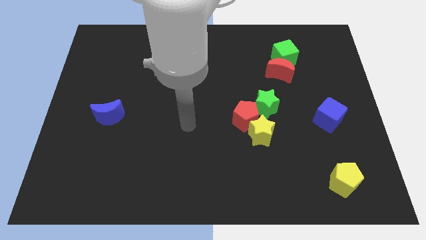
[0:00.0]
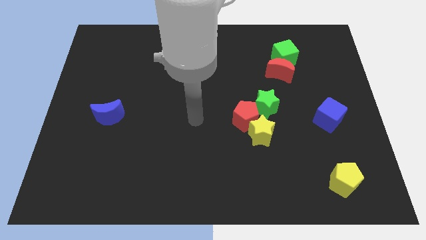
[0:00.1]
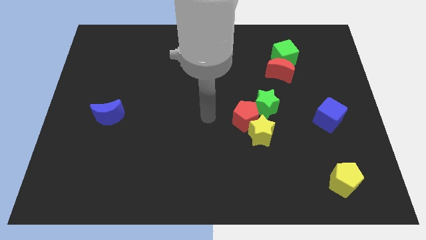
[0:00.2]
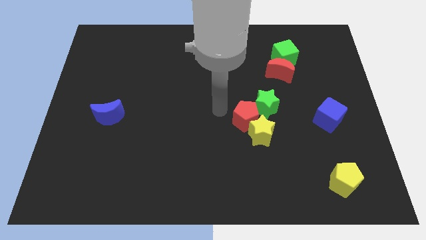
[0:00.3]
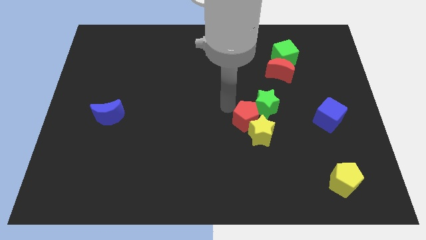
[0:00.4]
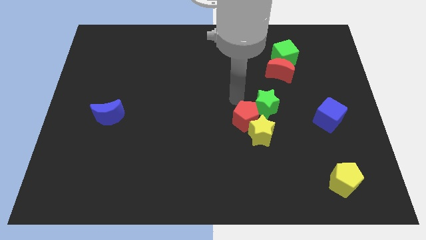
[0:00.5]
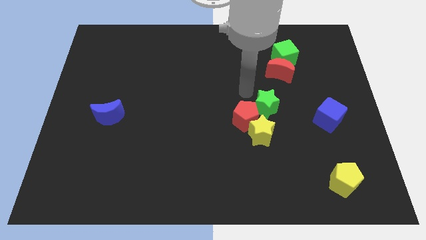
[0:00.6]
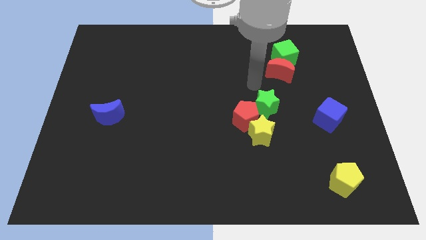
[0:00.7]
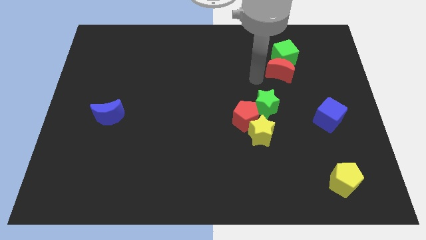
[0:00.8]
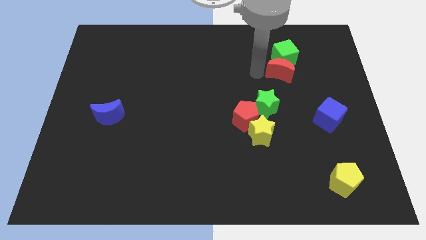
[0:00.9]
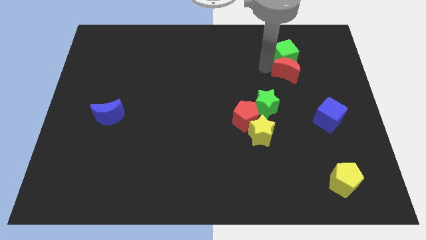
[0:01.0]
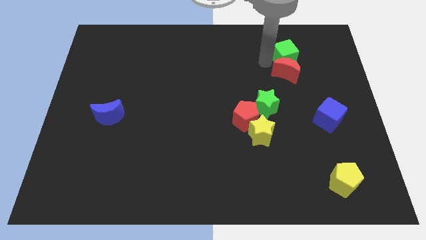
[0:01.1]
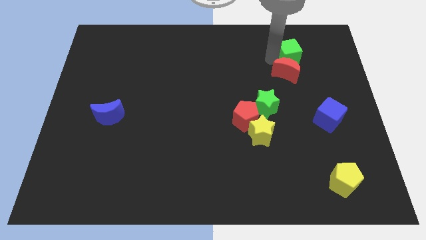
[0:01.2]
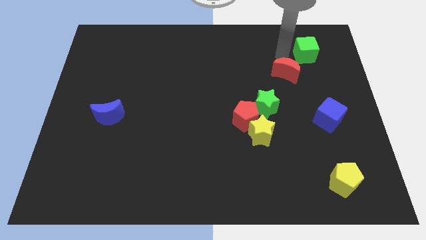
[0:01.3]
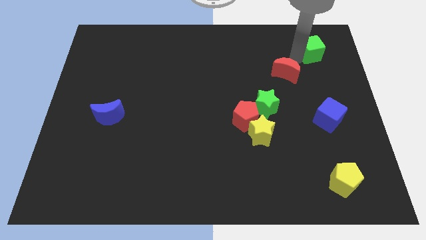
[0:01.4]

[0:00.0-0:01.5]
move the red moon away from the green cube

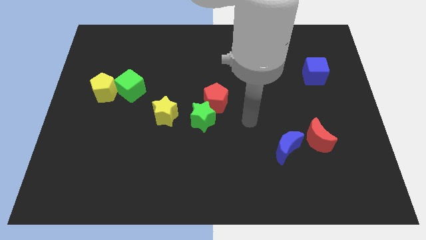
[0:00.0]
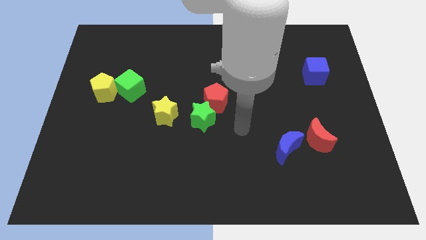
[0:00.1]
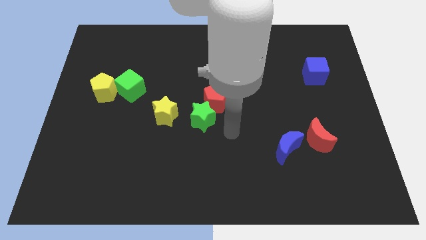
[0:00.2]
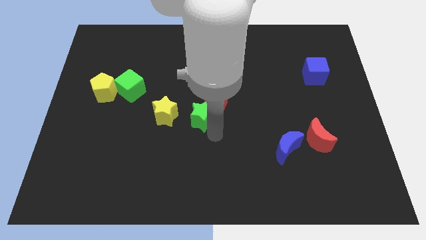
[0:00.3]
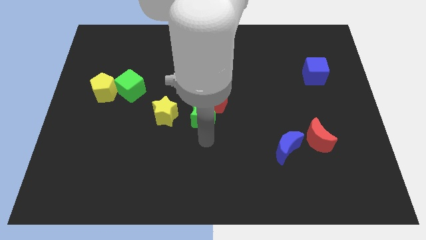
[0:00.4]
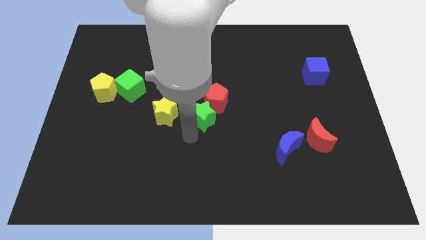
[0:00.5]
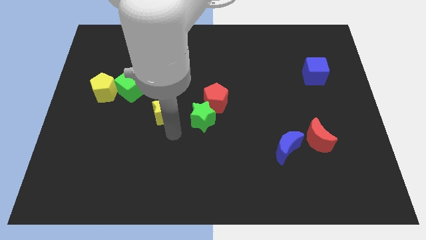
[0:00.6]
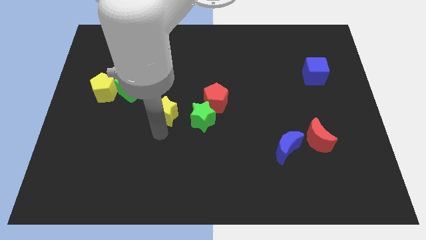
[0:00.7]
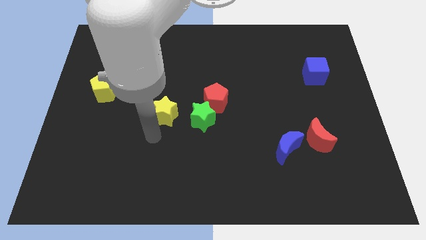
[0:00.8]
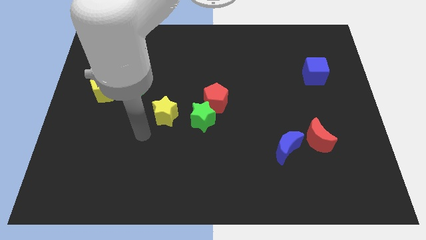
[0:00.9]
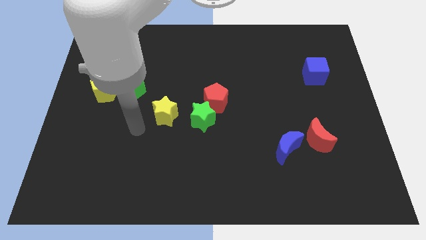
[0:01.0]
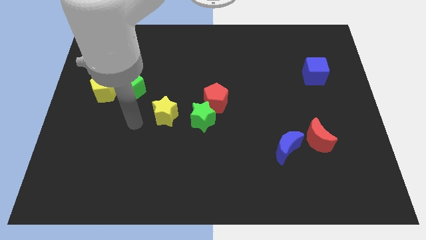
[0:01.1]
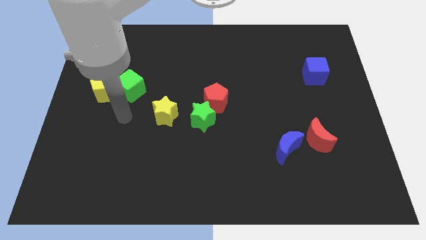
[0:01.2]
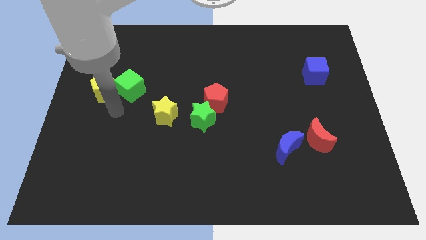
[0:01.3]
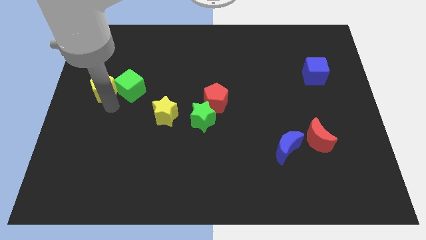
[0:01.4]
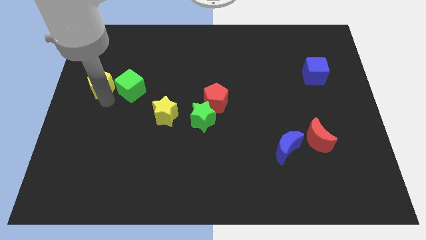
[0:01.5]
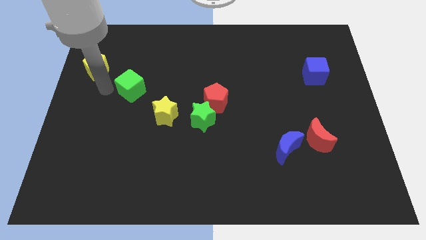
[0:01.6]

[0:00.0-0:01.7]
move the green cube away from the yellow pentagon

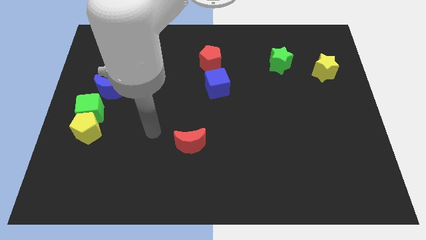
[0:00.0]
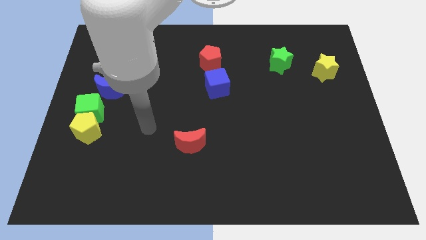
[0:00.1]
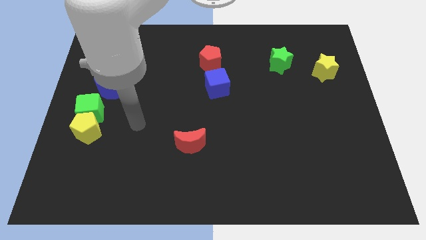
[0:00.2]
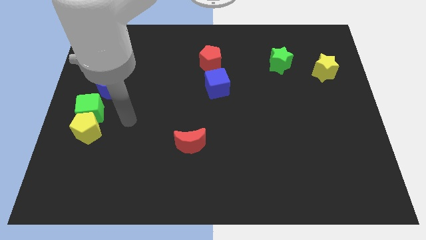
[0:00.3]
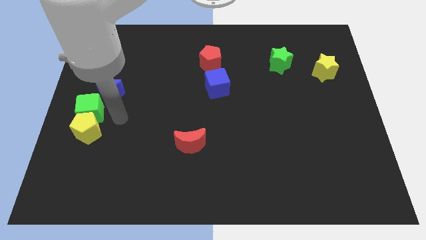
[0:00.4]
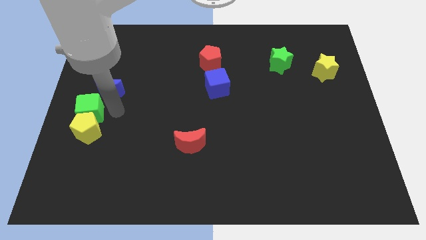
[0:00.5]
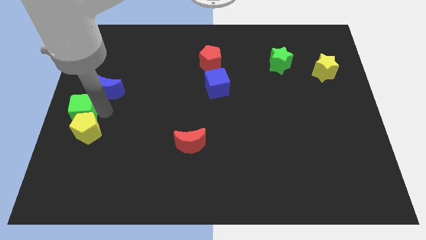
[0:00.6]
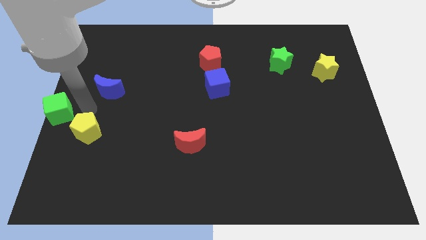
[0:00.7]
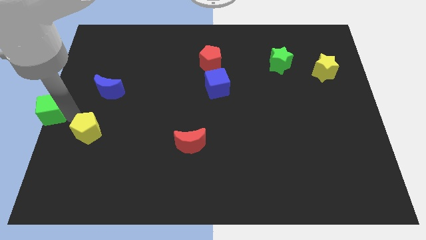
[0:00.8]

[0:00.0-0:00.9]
move the yellow pentagon away from the green cube

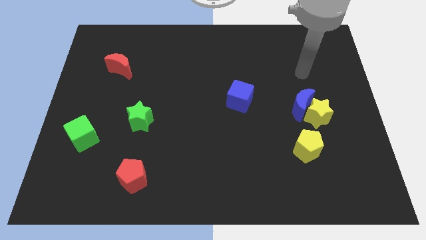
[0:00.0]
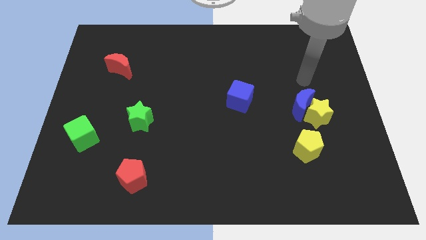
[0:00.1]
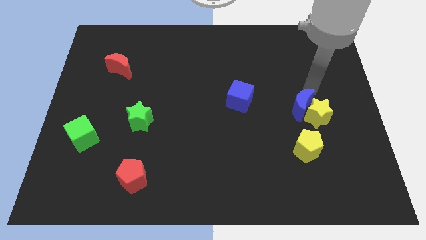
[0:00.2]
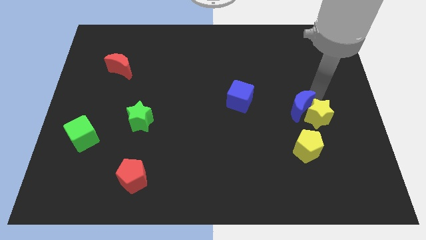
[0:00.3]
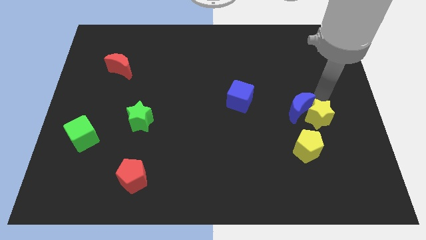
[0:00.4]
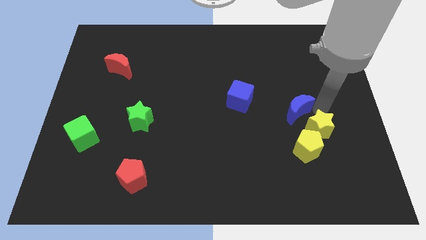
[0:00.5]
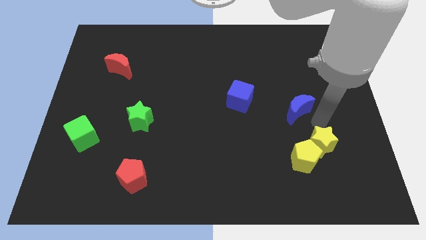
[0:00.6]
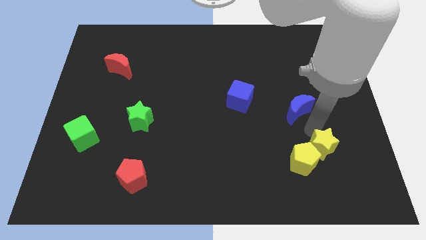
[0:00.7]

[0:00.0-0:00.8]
pull the blue moon apart from the yellow star

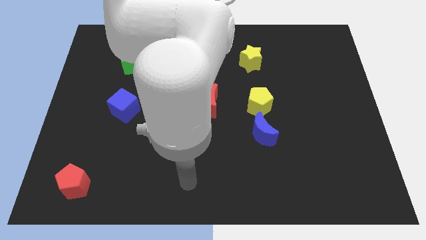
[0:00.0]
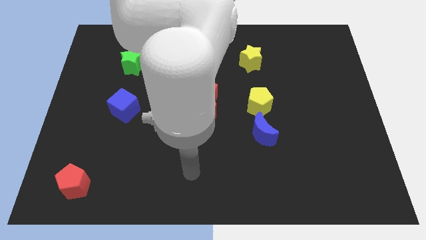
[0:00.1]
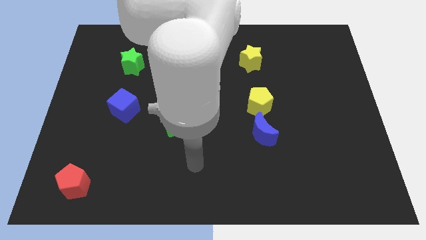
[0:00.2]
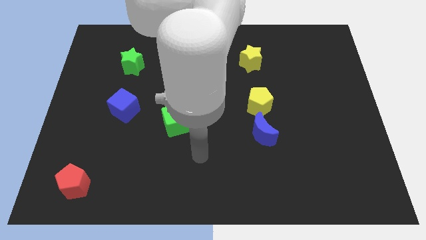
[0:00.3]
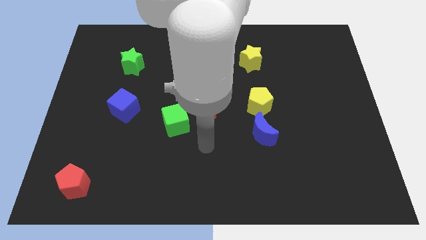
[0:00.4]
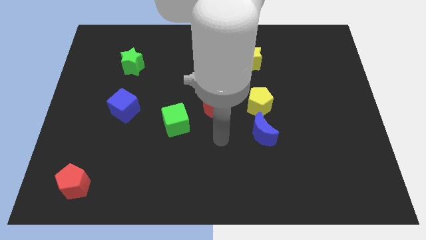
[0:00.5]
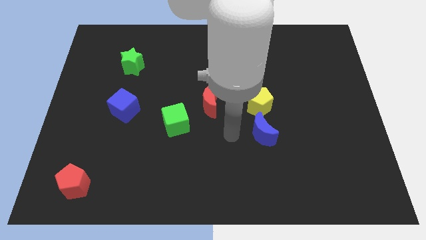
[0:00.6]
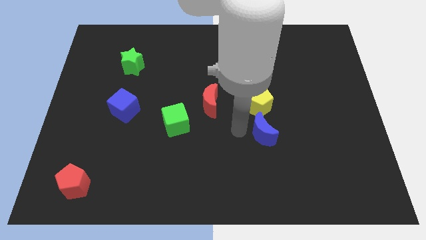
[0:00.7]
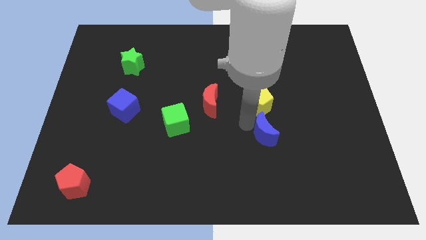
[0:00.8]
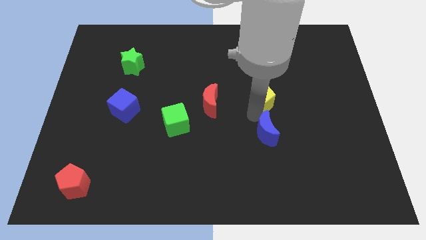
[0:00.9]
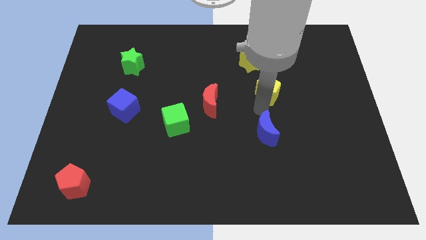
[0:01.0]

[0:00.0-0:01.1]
pull the blue moon apart from the yellow pentagon

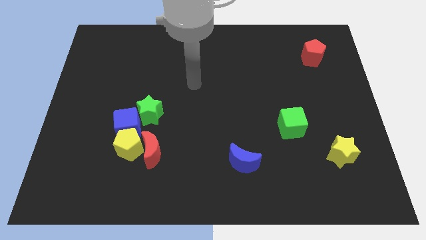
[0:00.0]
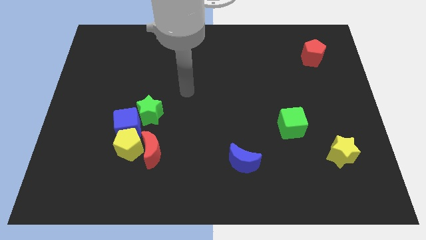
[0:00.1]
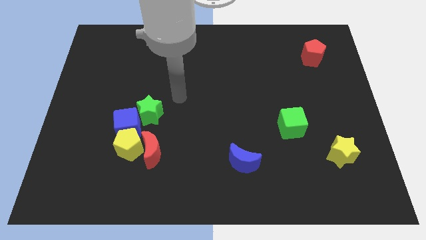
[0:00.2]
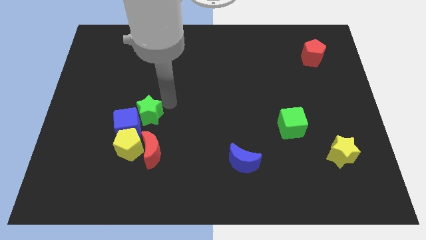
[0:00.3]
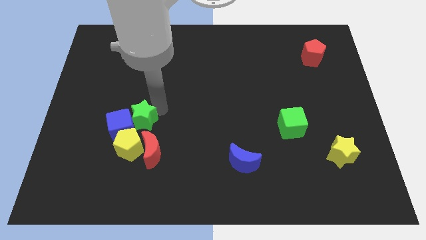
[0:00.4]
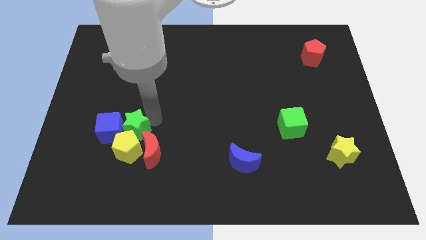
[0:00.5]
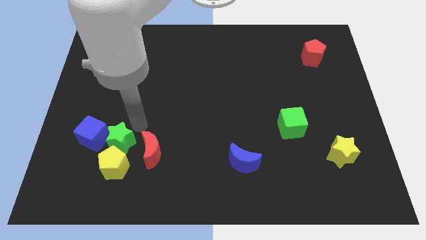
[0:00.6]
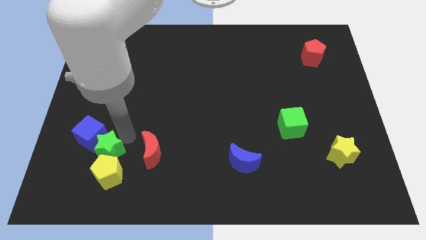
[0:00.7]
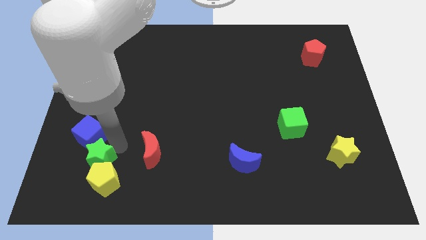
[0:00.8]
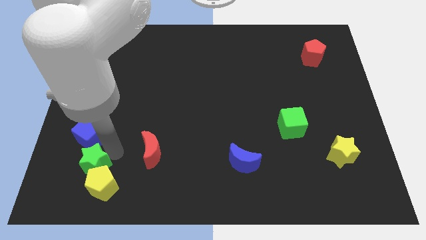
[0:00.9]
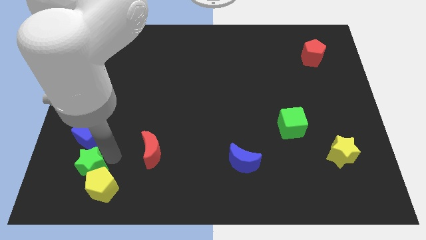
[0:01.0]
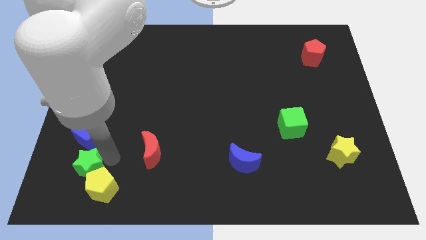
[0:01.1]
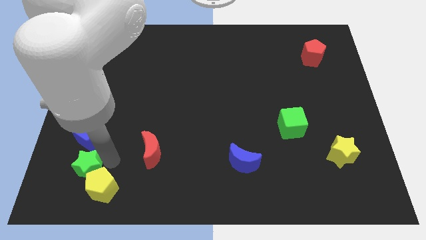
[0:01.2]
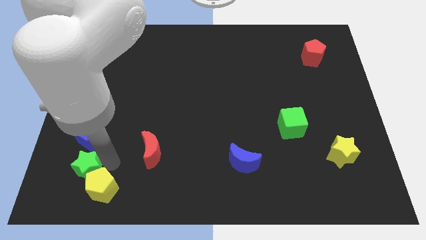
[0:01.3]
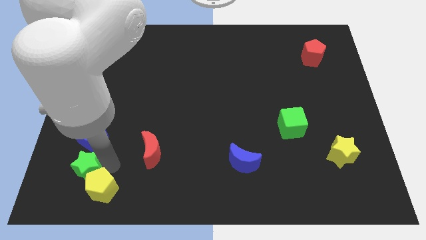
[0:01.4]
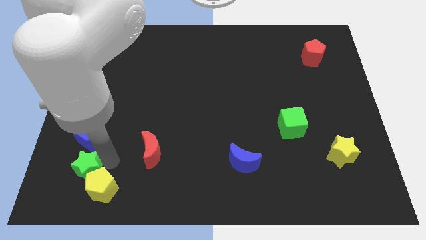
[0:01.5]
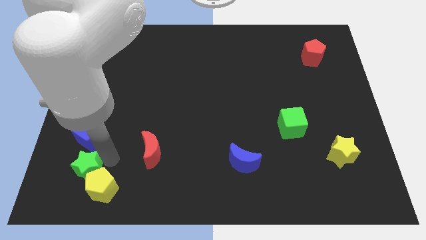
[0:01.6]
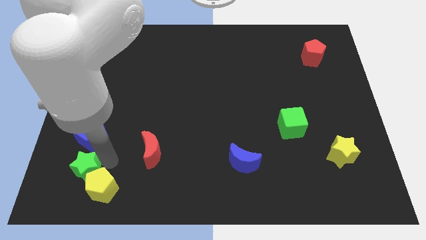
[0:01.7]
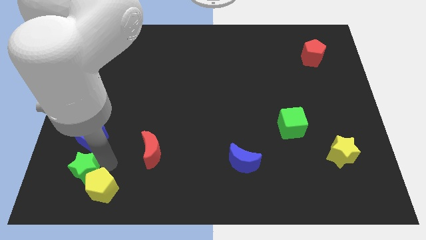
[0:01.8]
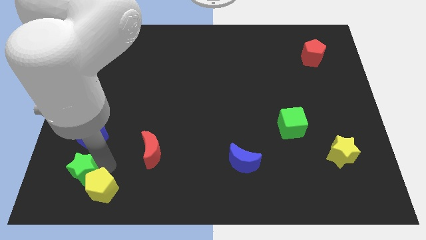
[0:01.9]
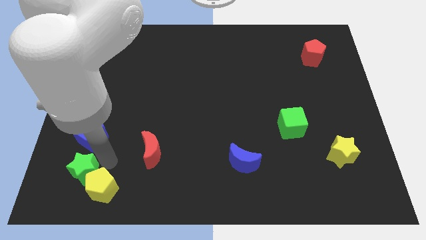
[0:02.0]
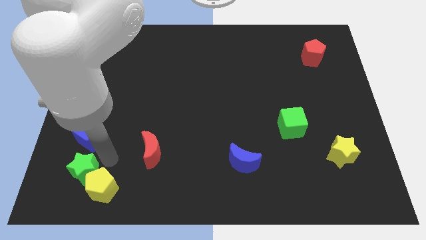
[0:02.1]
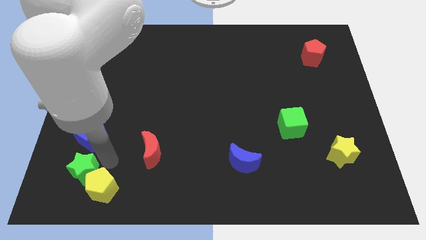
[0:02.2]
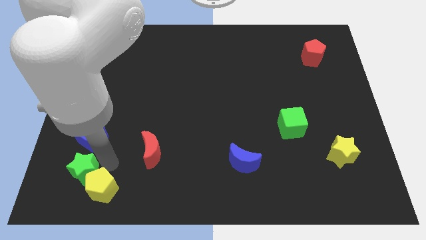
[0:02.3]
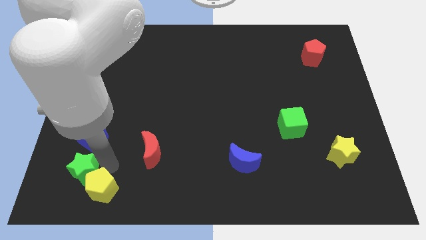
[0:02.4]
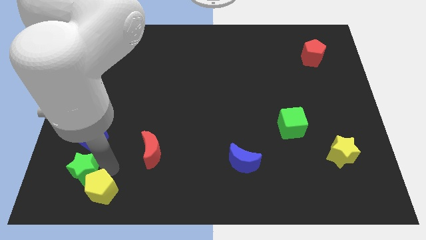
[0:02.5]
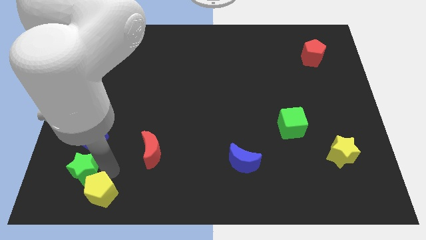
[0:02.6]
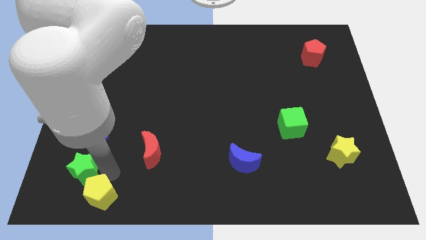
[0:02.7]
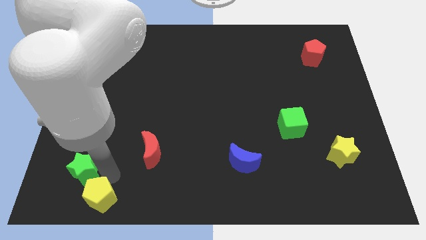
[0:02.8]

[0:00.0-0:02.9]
separate the yellow pentagon from the red moon, blue cube, and green star

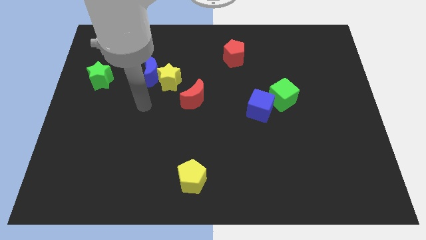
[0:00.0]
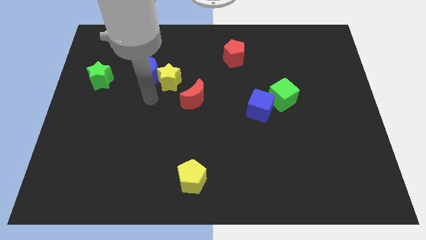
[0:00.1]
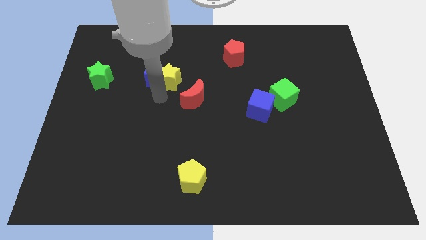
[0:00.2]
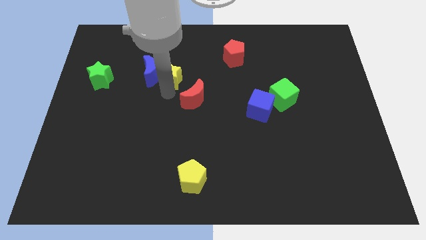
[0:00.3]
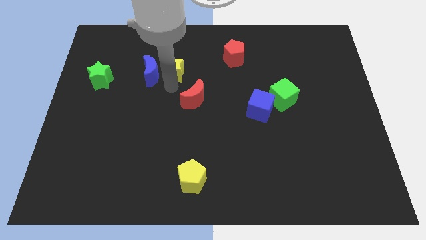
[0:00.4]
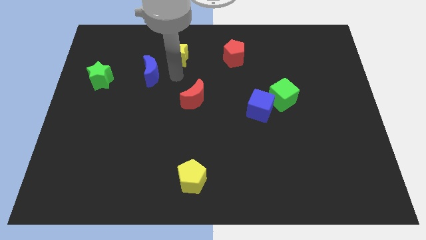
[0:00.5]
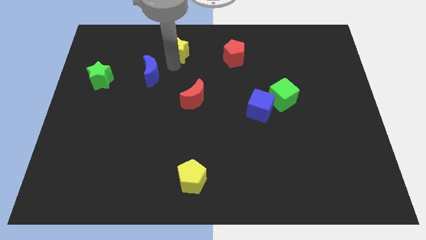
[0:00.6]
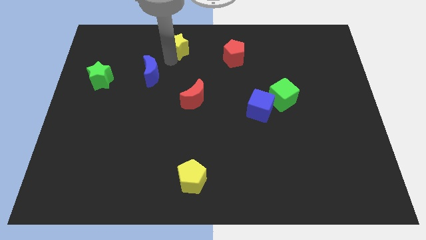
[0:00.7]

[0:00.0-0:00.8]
move the blue moon away from the yellow star
